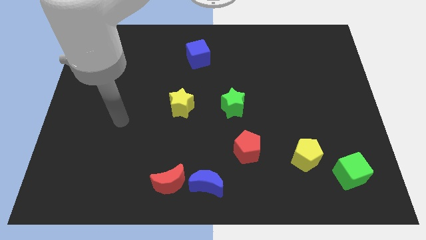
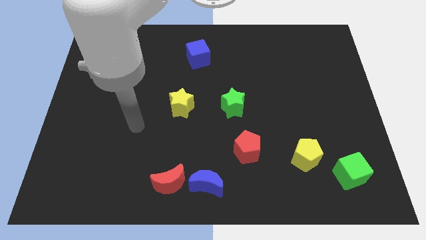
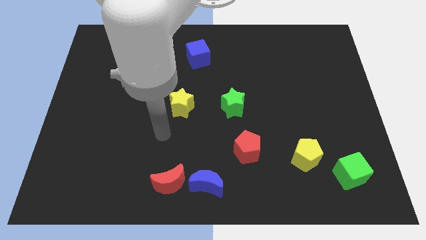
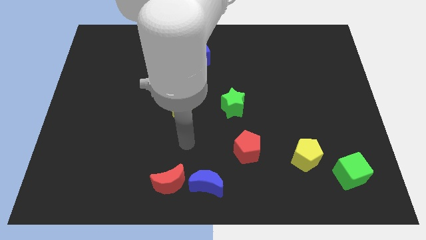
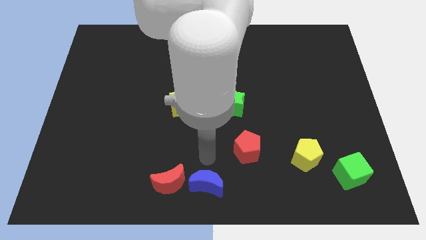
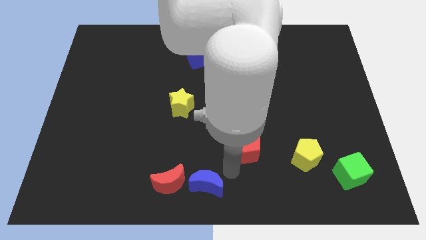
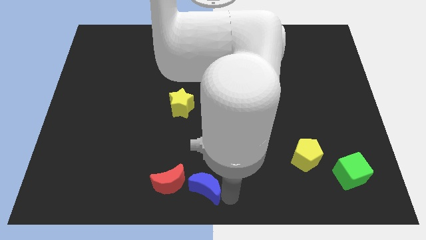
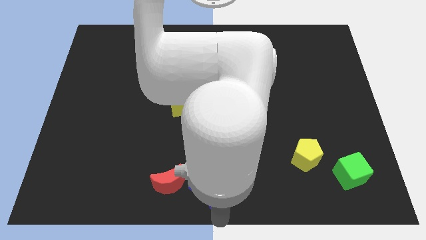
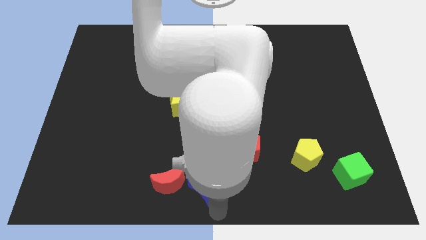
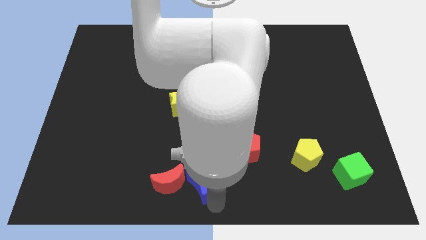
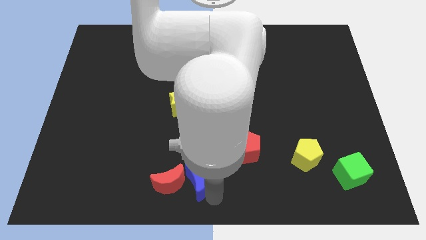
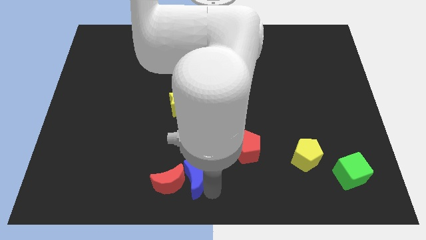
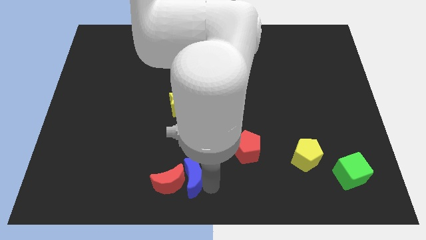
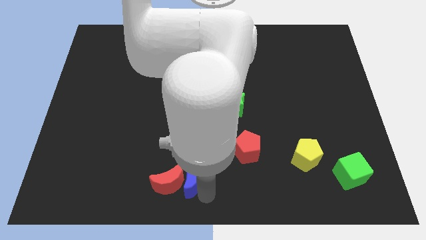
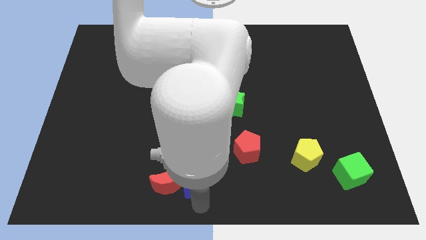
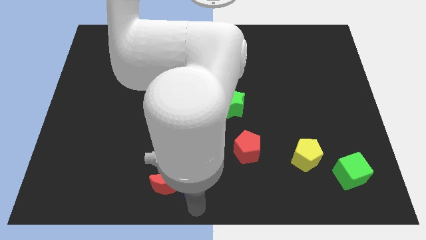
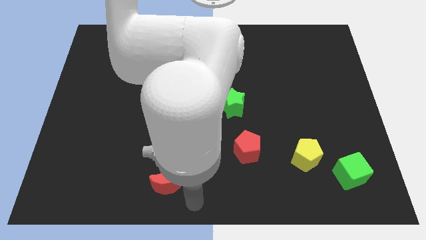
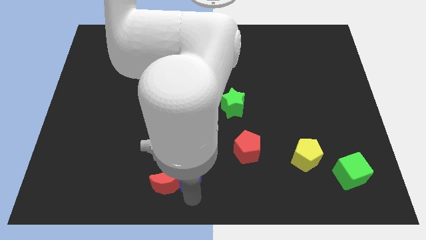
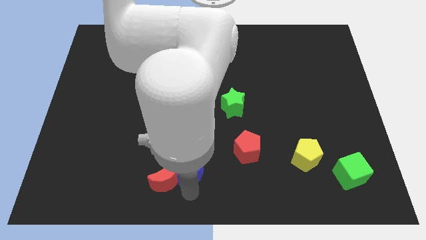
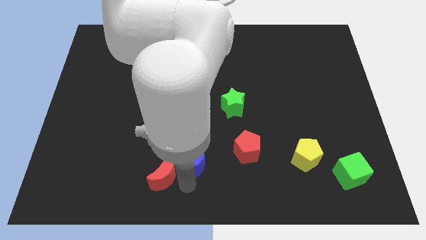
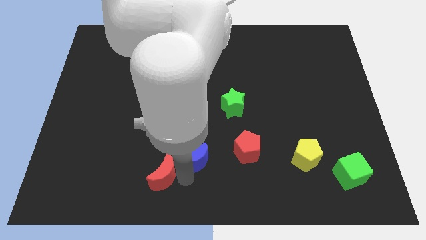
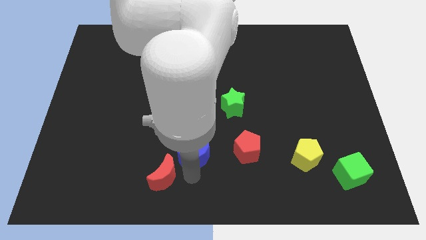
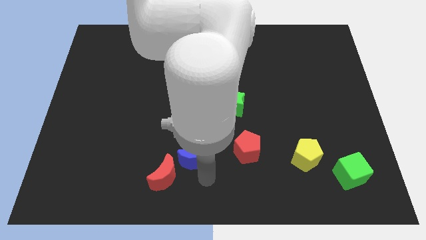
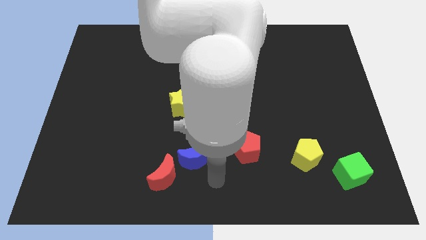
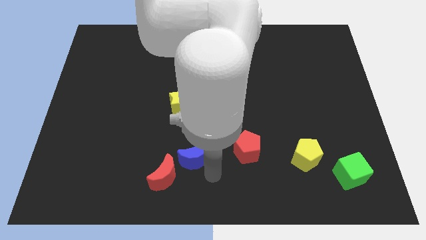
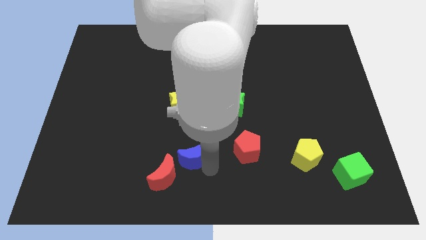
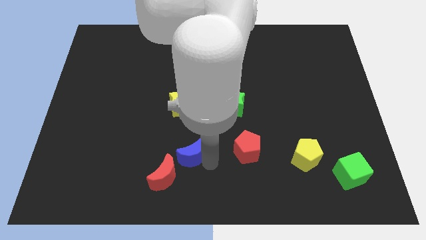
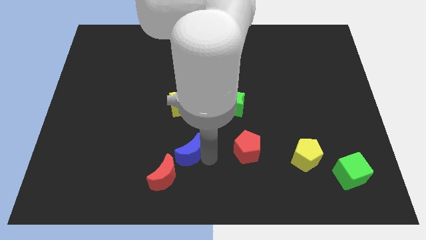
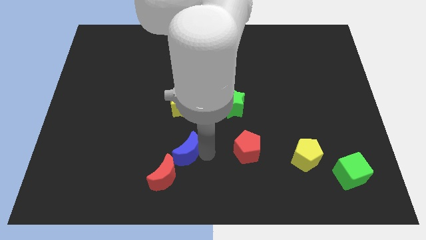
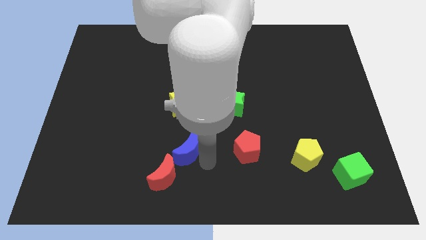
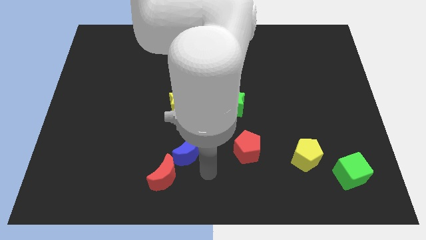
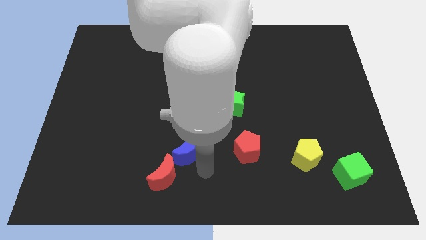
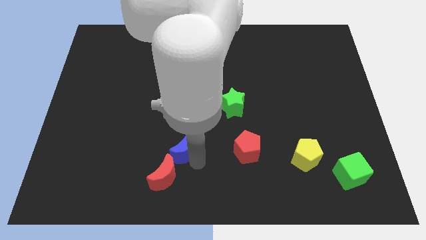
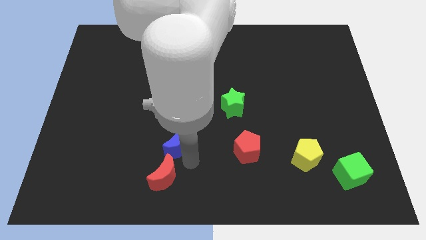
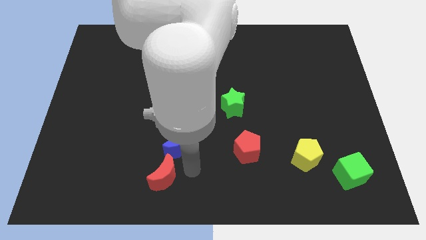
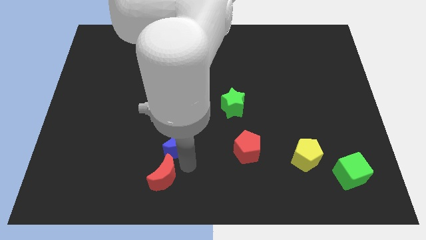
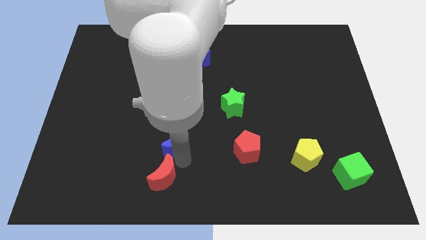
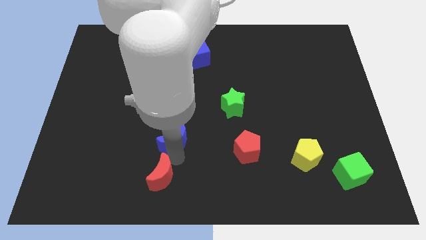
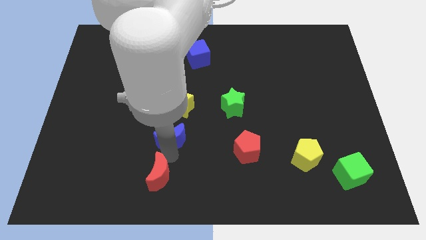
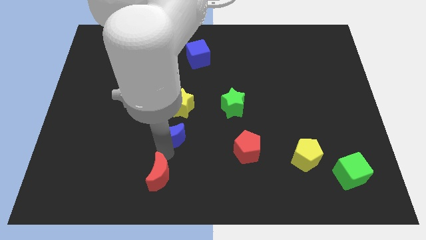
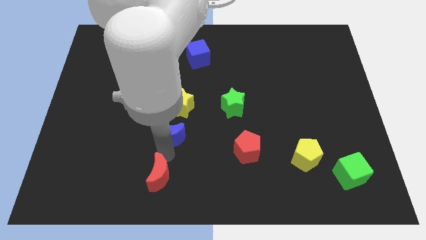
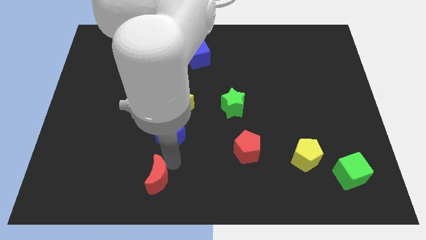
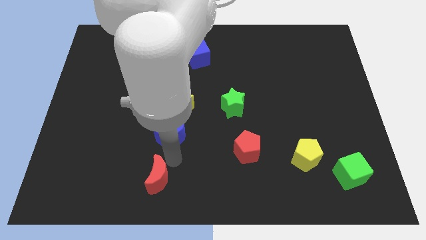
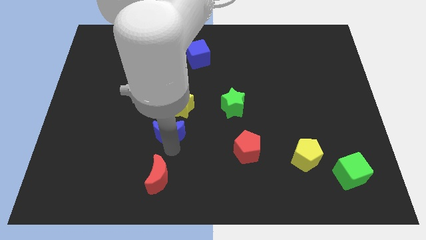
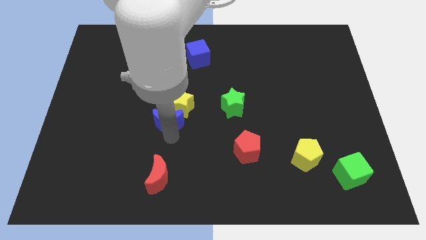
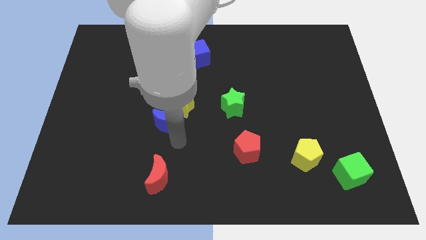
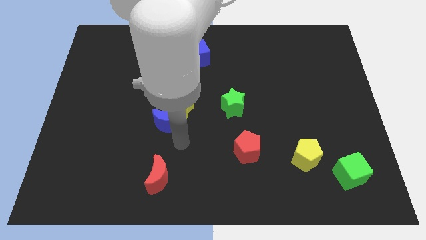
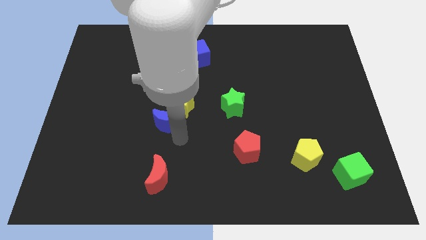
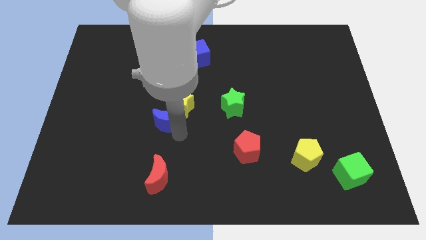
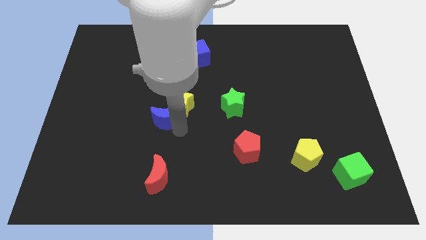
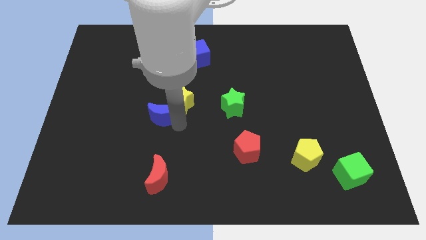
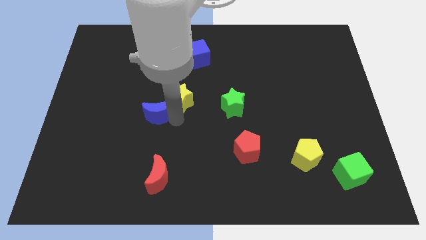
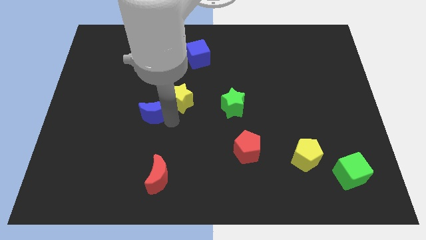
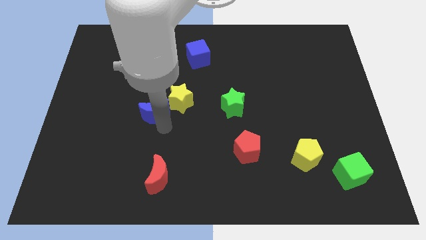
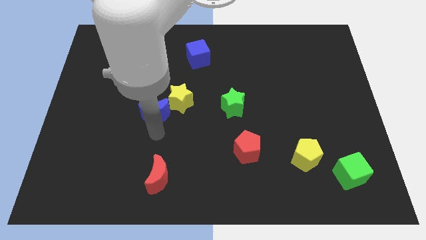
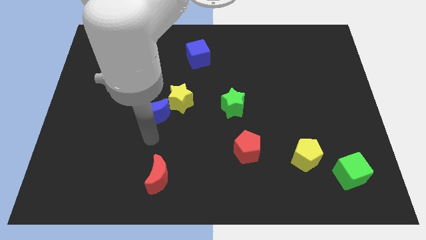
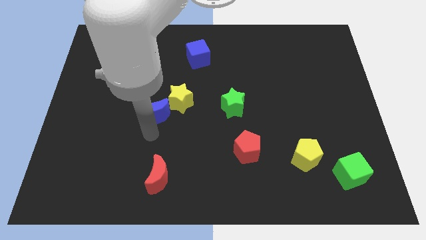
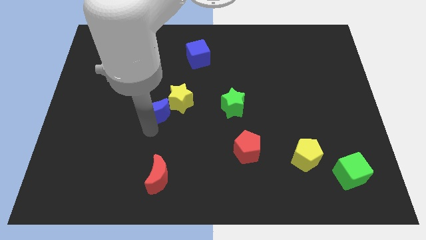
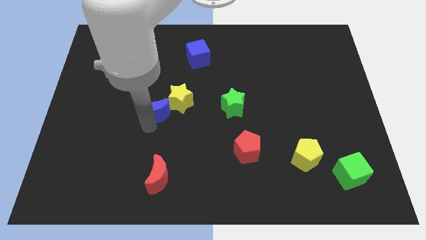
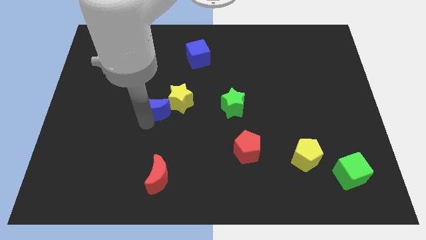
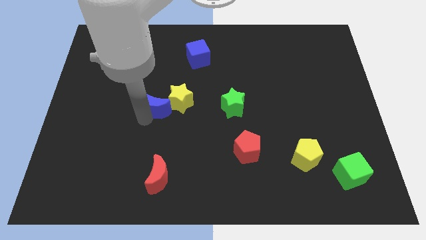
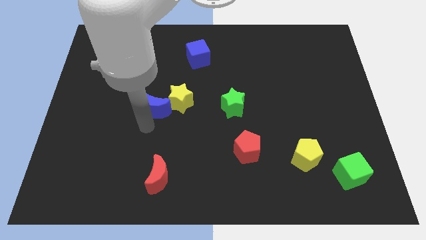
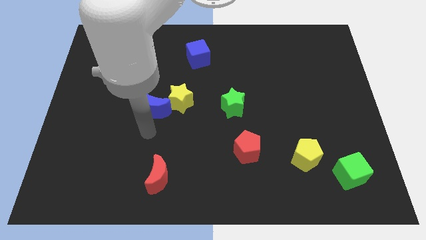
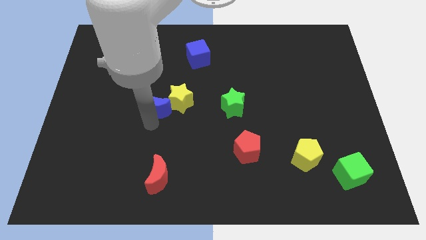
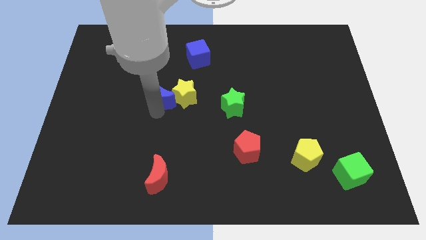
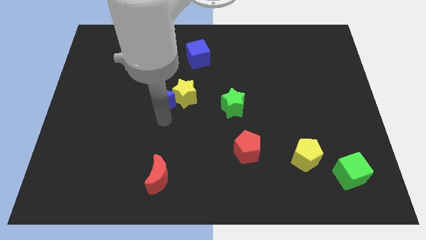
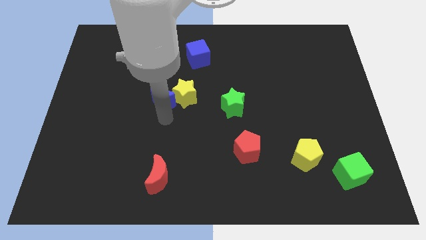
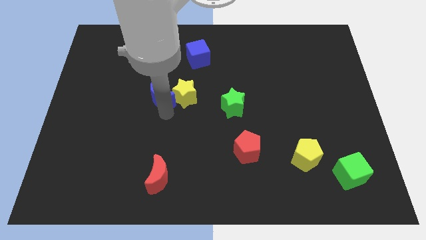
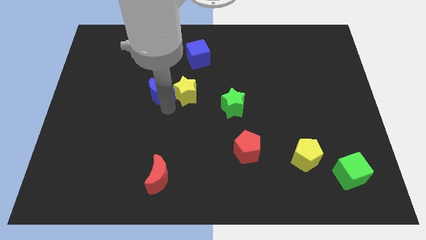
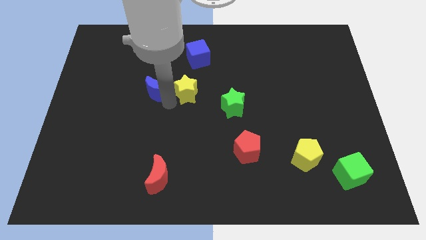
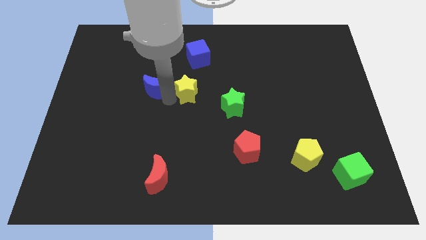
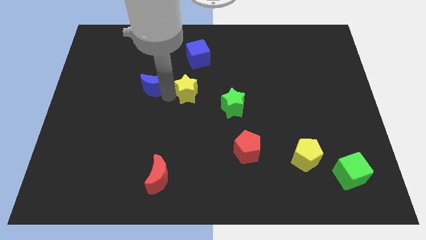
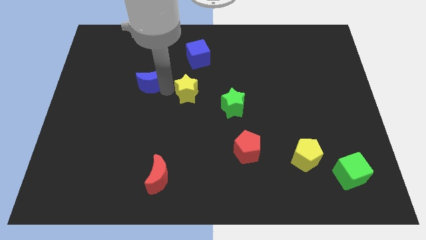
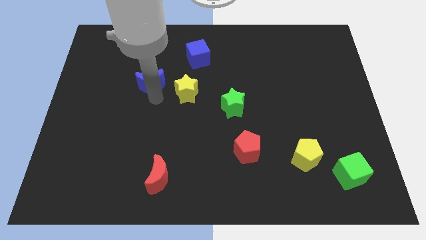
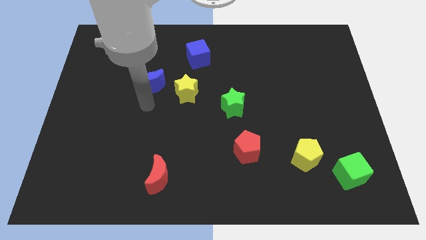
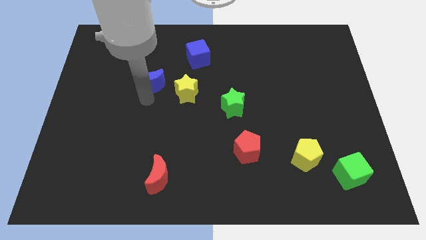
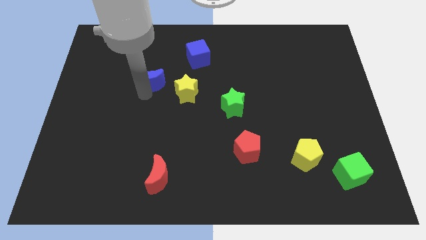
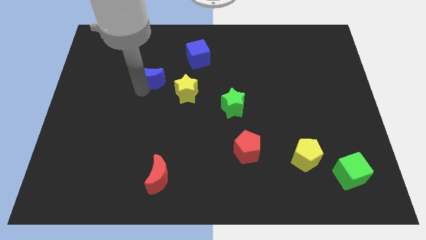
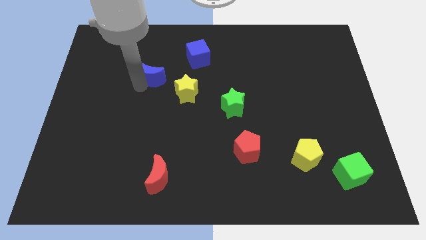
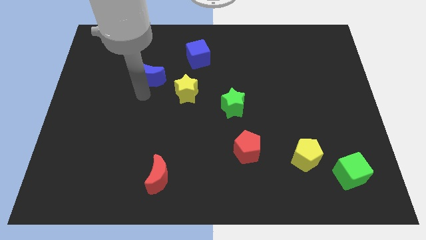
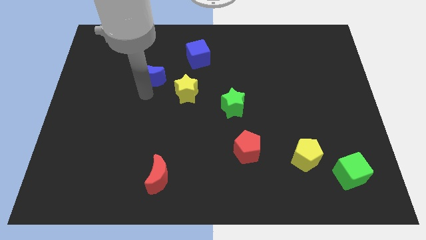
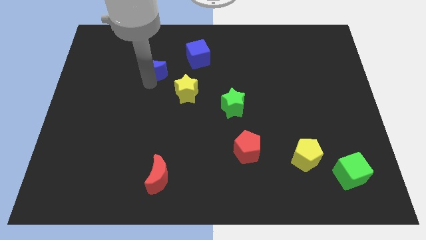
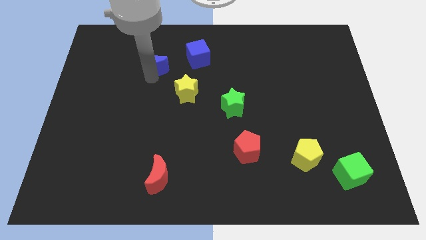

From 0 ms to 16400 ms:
slide the blue moon to the left side of the blue cube
